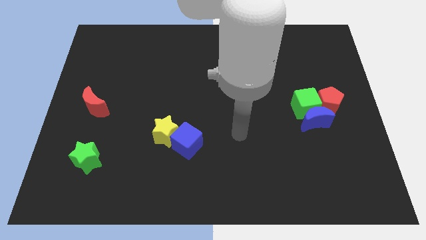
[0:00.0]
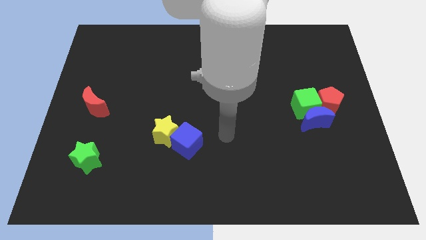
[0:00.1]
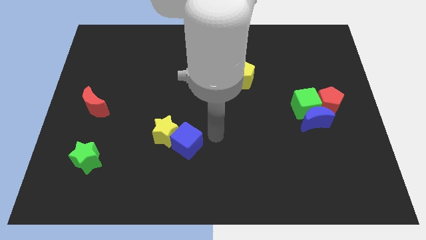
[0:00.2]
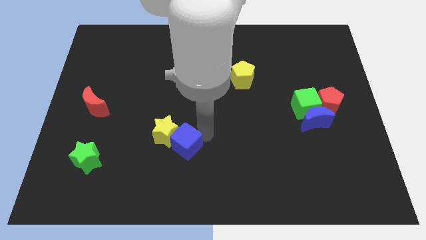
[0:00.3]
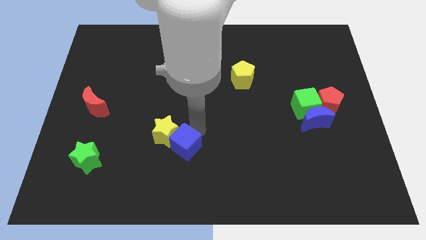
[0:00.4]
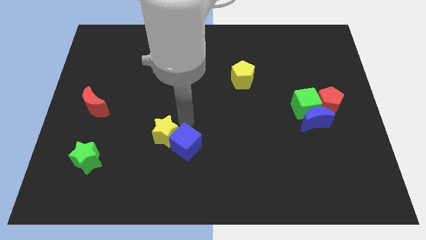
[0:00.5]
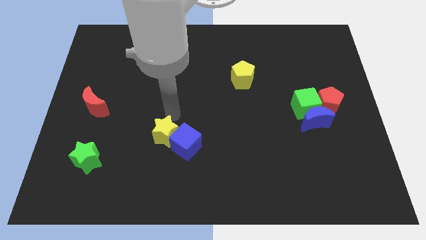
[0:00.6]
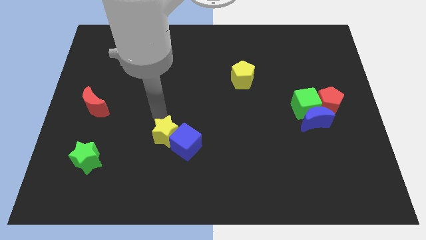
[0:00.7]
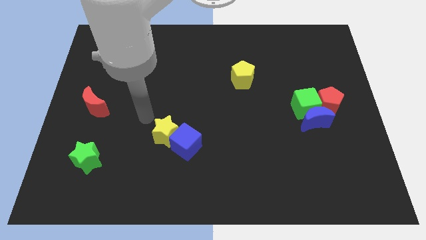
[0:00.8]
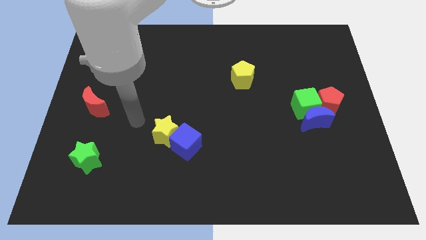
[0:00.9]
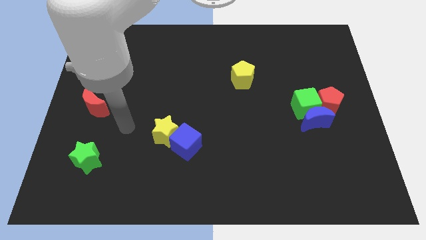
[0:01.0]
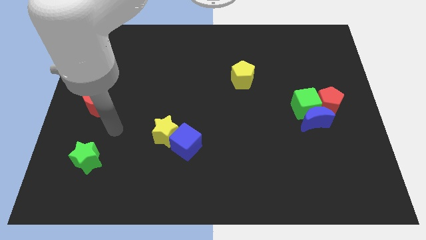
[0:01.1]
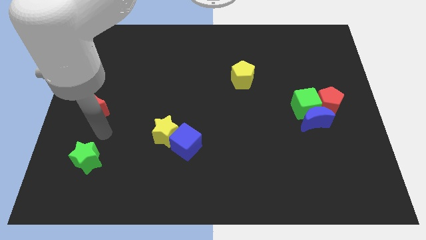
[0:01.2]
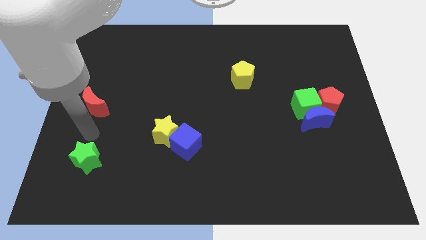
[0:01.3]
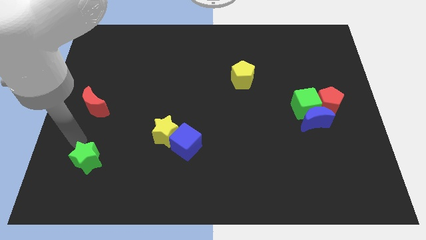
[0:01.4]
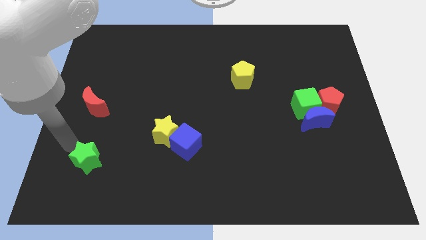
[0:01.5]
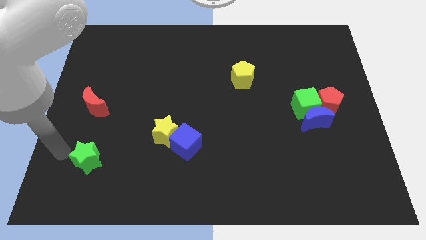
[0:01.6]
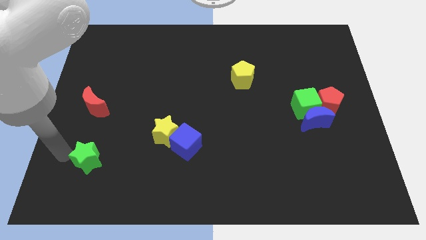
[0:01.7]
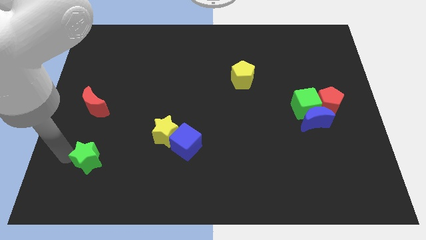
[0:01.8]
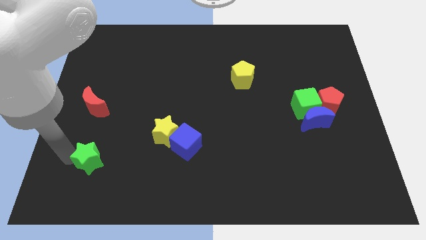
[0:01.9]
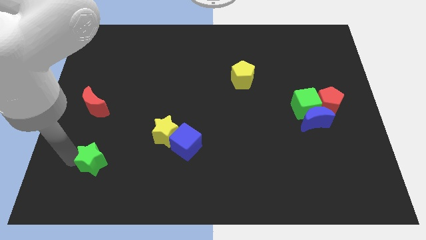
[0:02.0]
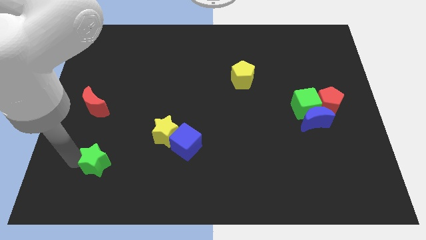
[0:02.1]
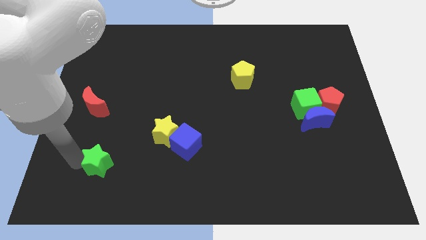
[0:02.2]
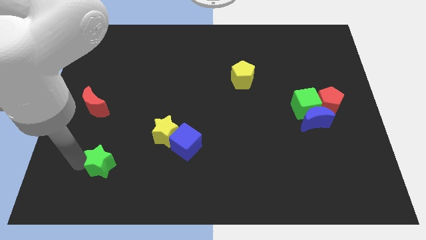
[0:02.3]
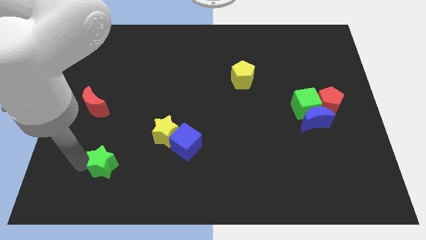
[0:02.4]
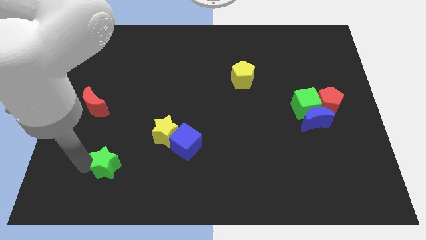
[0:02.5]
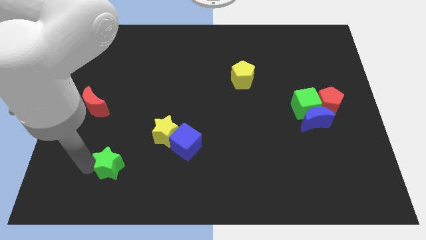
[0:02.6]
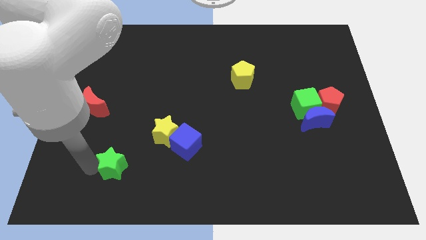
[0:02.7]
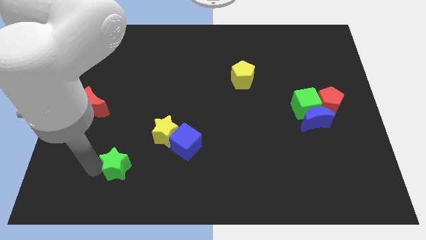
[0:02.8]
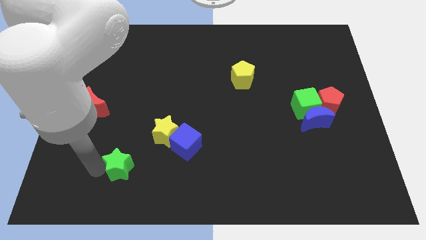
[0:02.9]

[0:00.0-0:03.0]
slide the green star a bit to the right

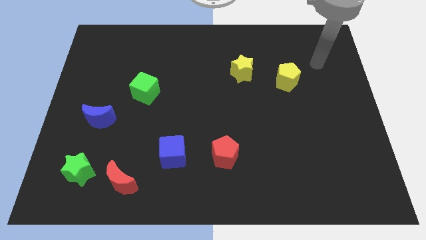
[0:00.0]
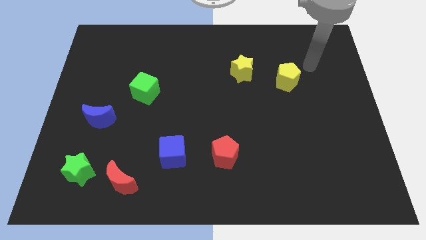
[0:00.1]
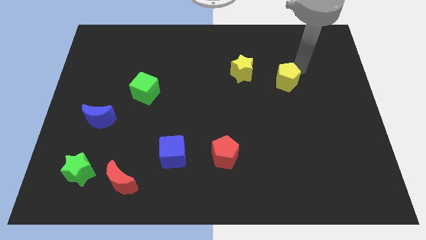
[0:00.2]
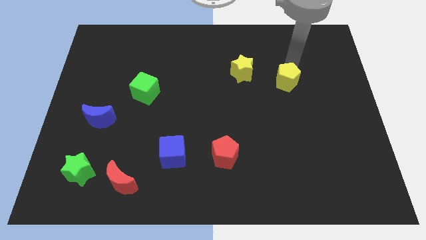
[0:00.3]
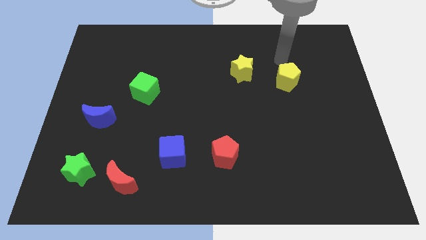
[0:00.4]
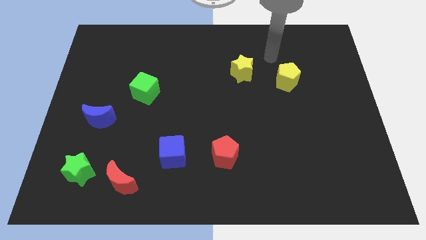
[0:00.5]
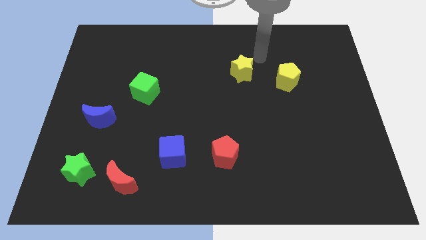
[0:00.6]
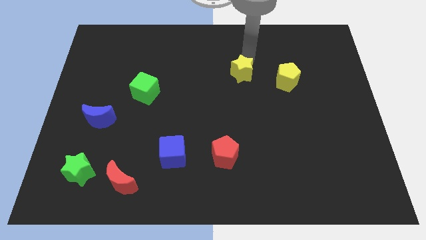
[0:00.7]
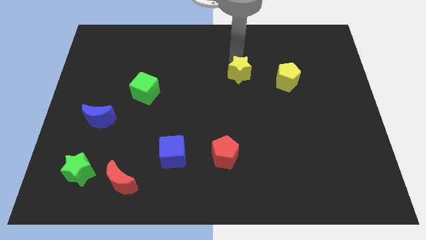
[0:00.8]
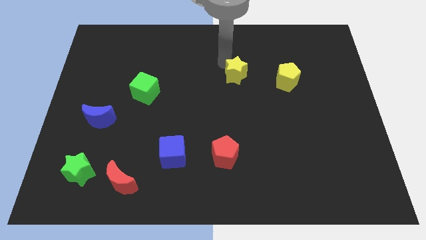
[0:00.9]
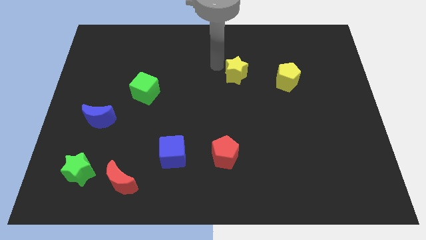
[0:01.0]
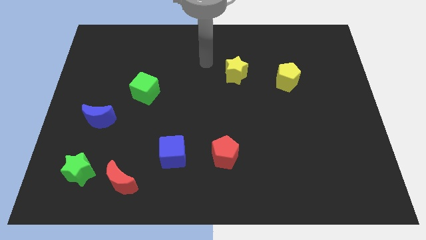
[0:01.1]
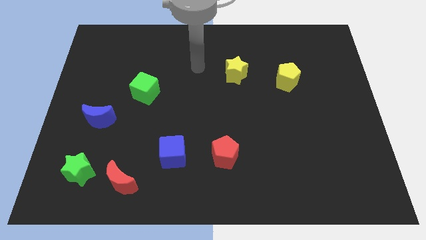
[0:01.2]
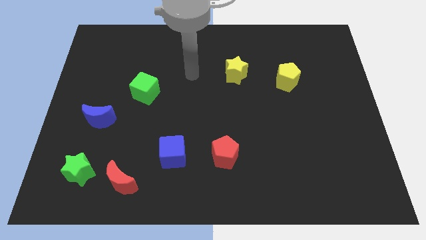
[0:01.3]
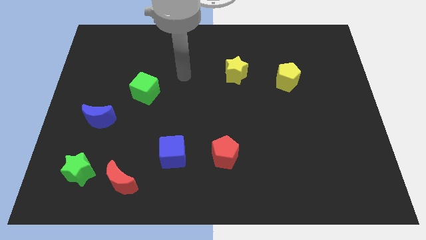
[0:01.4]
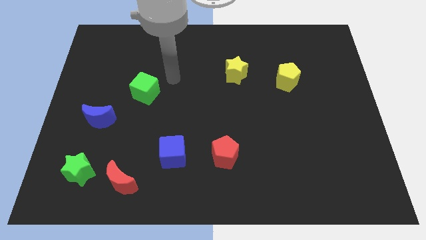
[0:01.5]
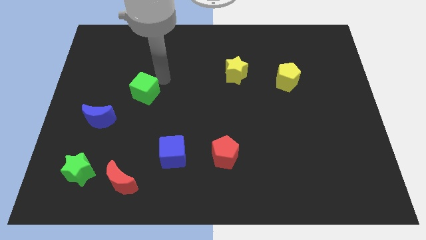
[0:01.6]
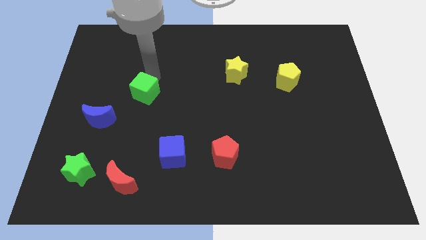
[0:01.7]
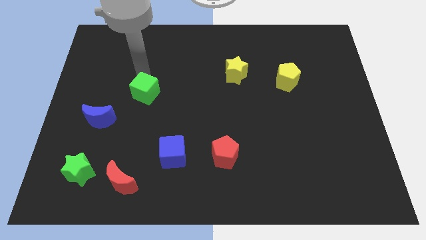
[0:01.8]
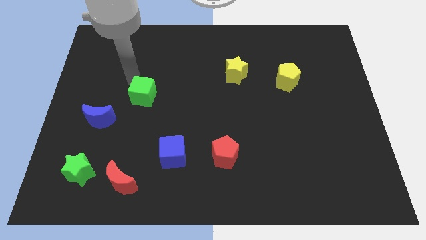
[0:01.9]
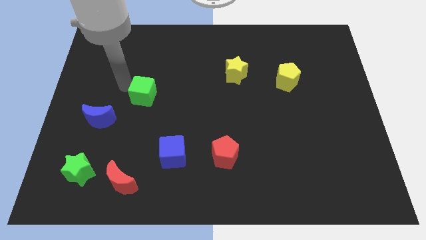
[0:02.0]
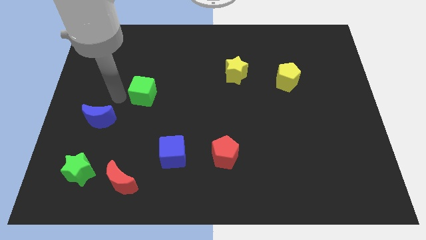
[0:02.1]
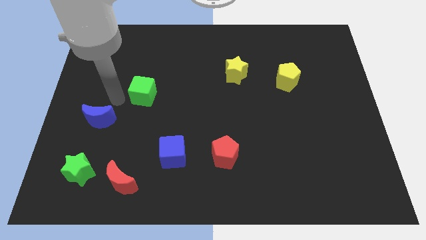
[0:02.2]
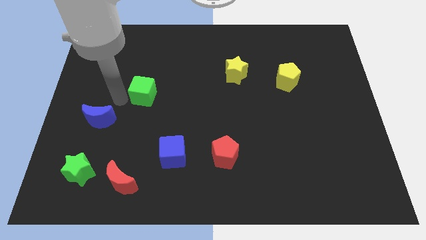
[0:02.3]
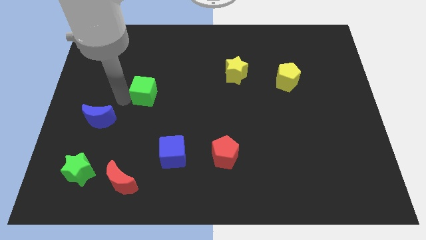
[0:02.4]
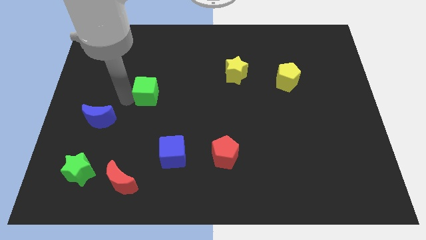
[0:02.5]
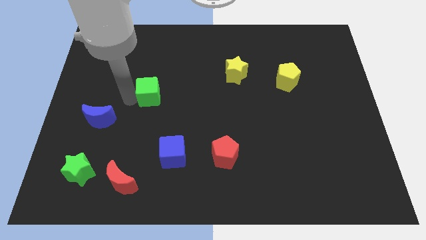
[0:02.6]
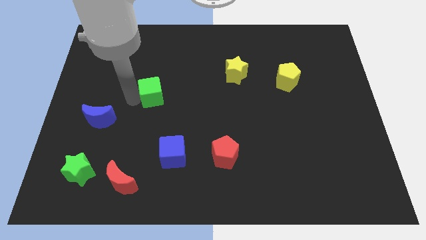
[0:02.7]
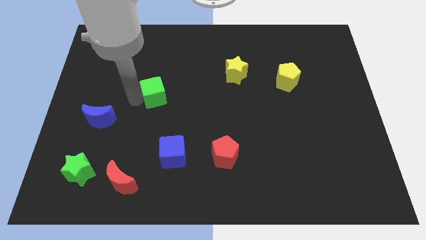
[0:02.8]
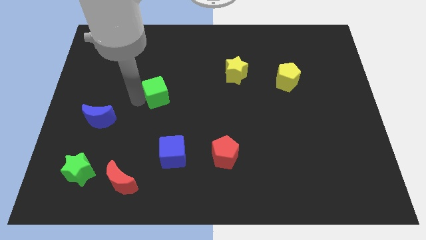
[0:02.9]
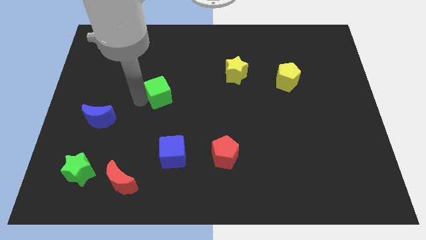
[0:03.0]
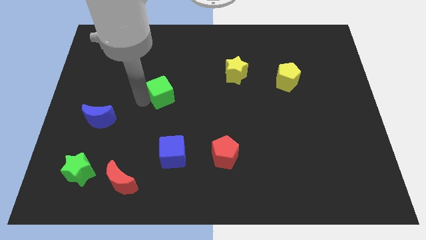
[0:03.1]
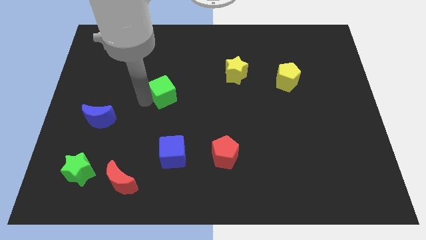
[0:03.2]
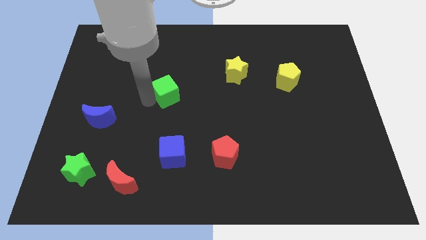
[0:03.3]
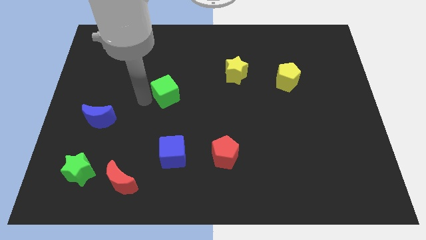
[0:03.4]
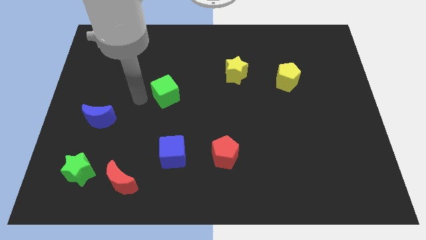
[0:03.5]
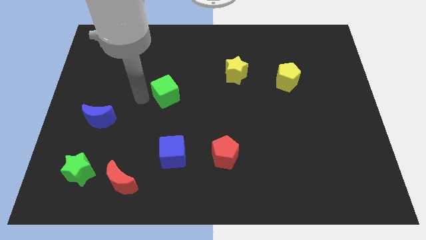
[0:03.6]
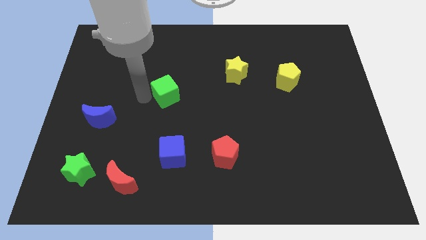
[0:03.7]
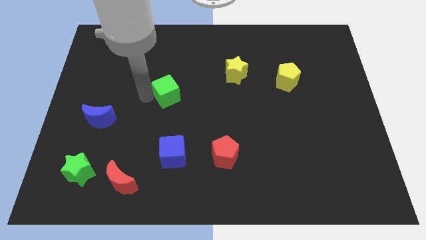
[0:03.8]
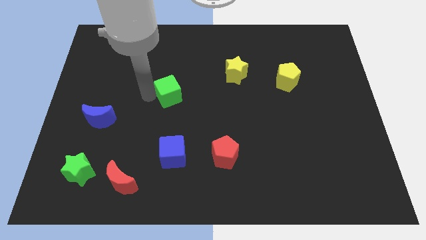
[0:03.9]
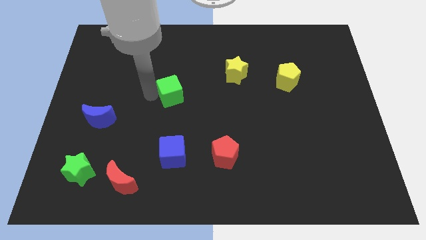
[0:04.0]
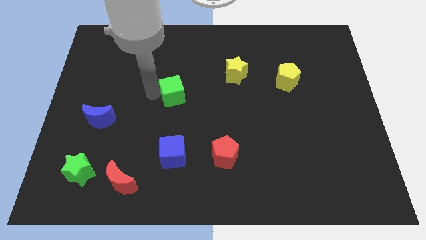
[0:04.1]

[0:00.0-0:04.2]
slightly push the green cube right

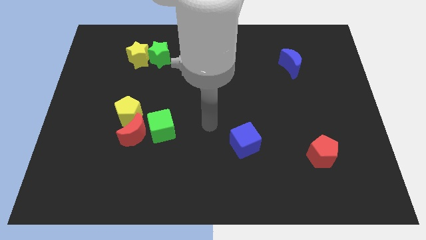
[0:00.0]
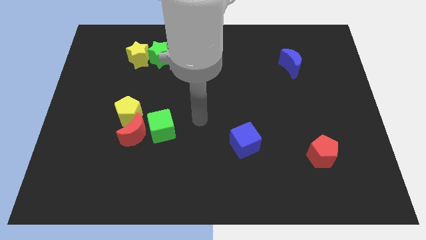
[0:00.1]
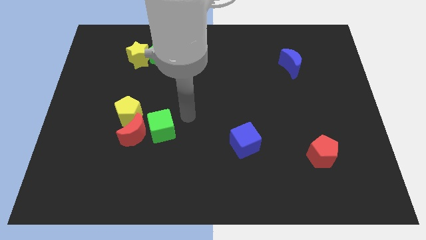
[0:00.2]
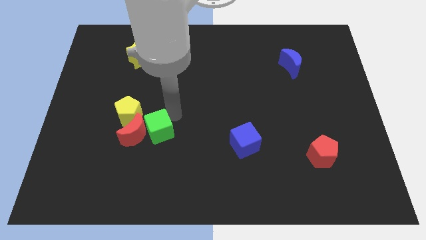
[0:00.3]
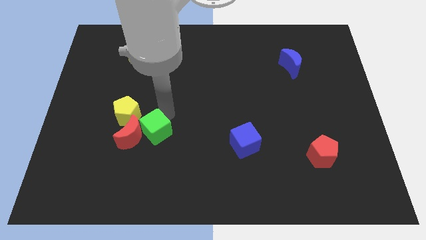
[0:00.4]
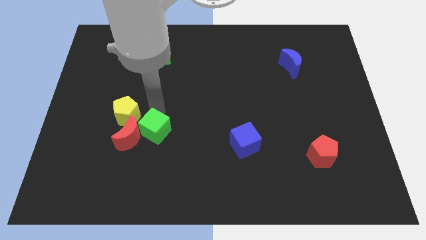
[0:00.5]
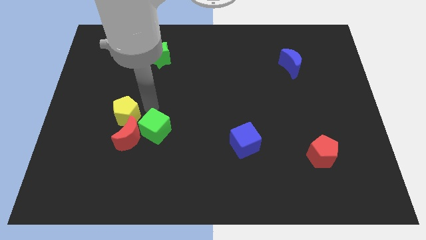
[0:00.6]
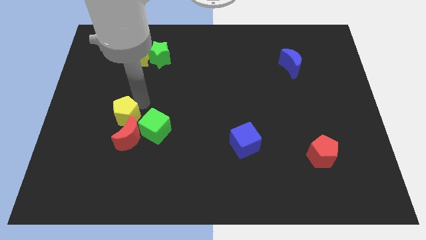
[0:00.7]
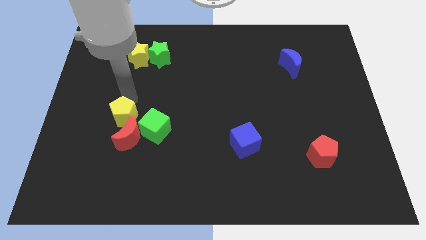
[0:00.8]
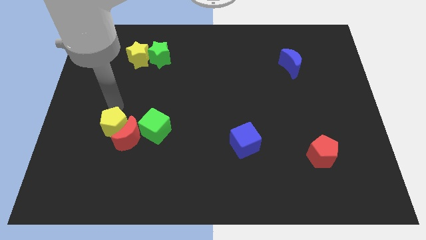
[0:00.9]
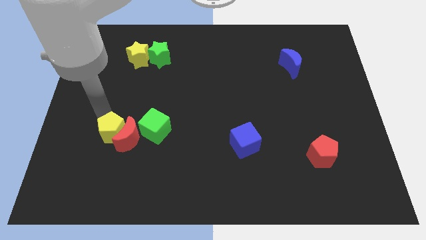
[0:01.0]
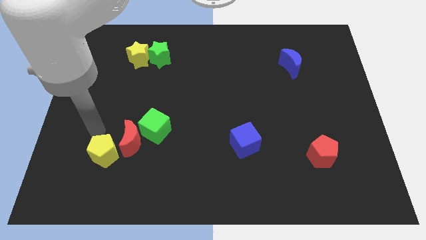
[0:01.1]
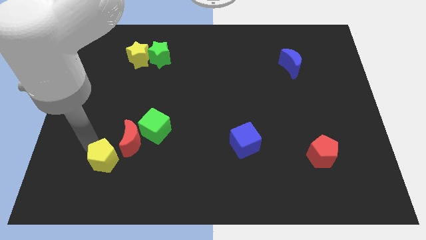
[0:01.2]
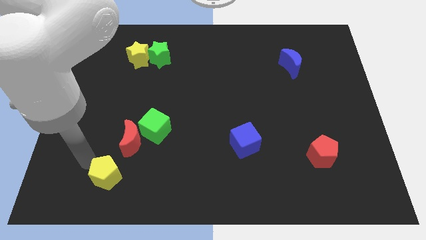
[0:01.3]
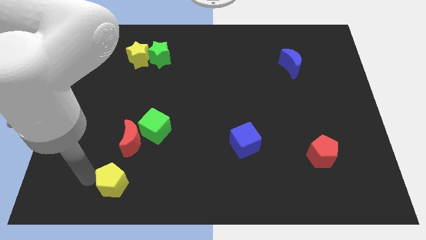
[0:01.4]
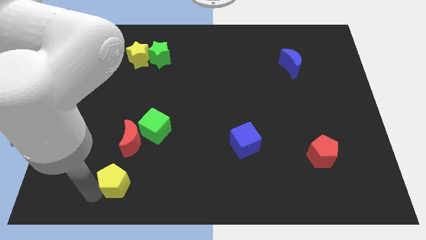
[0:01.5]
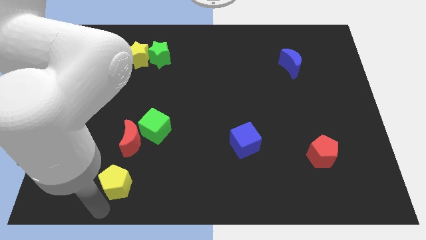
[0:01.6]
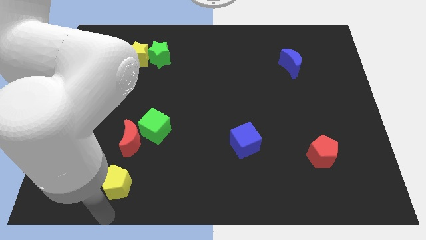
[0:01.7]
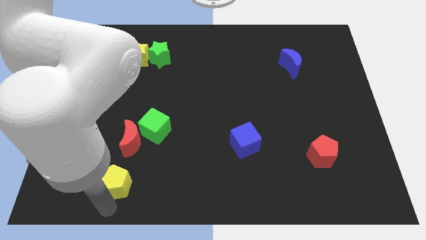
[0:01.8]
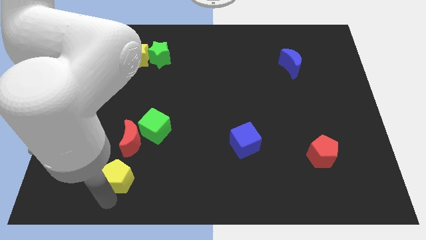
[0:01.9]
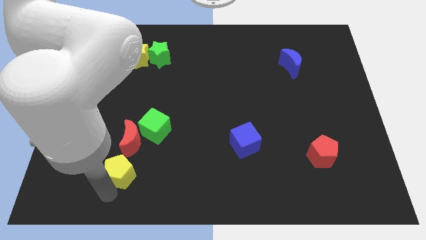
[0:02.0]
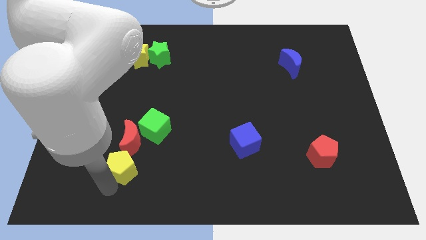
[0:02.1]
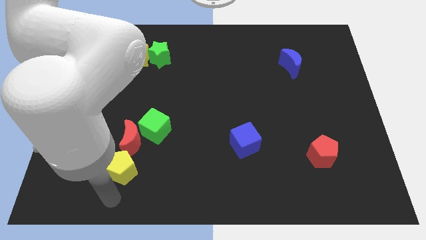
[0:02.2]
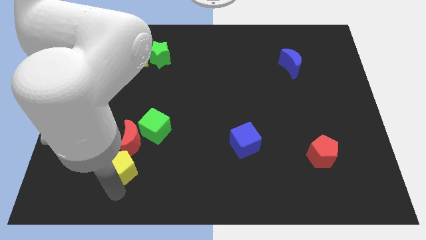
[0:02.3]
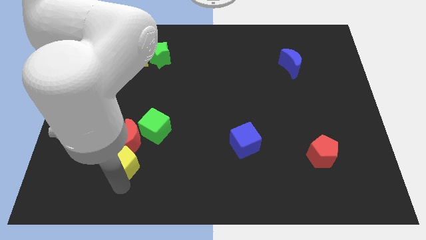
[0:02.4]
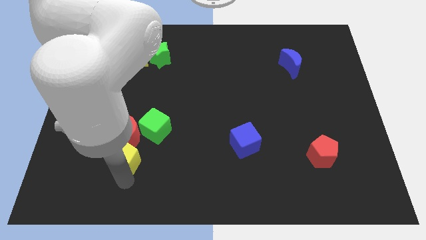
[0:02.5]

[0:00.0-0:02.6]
move the yellow pentagon down and then right somewhat
